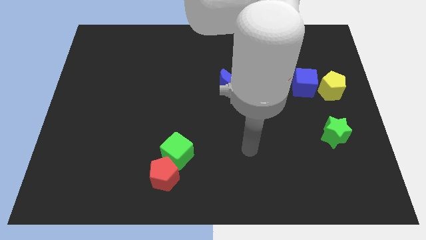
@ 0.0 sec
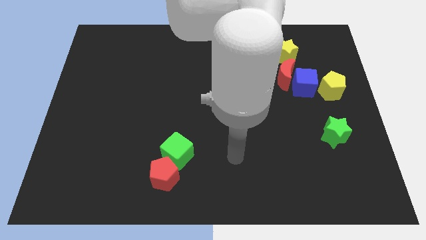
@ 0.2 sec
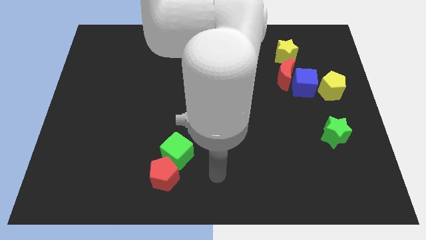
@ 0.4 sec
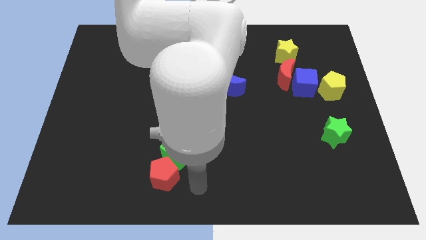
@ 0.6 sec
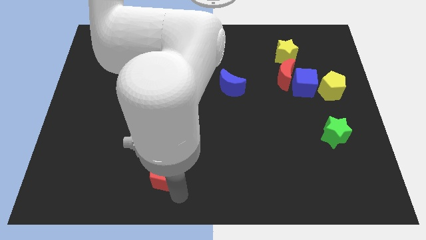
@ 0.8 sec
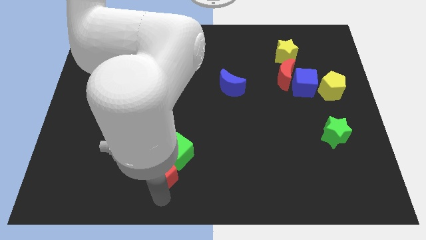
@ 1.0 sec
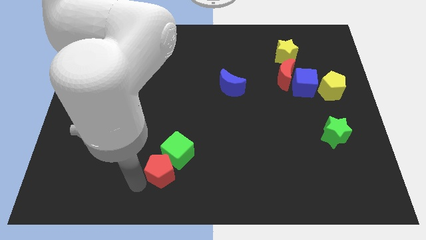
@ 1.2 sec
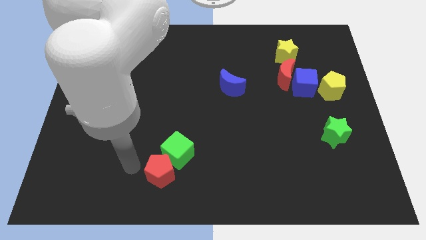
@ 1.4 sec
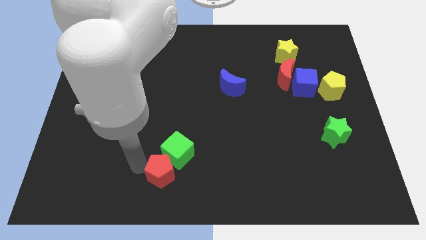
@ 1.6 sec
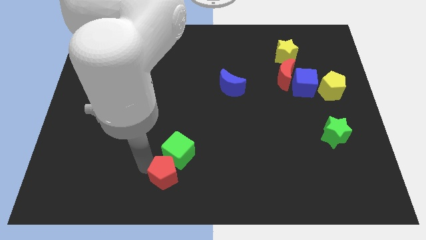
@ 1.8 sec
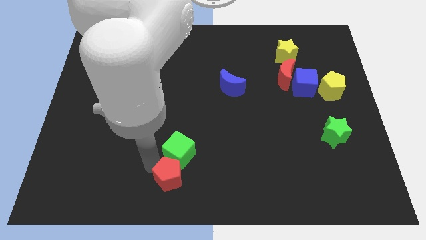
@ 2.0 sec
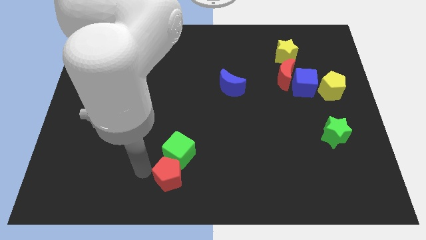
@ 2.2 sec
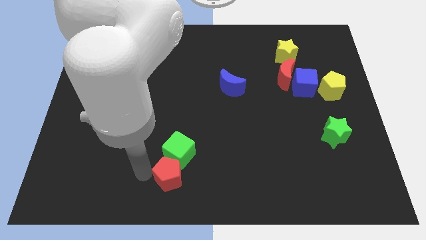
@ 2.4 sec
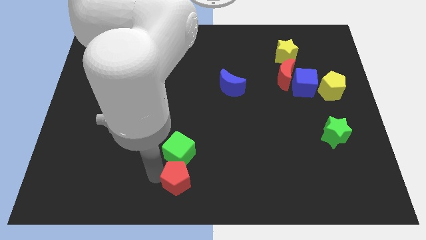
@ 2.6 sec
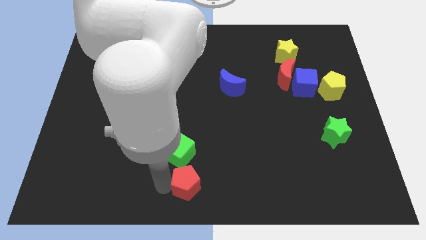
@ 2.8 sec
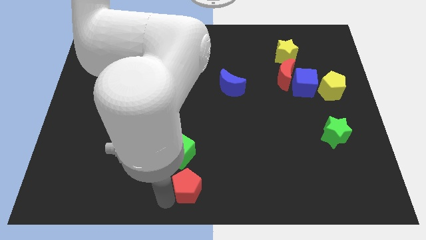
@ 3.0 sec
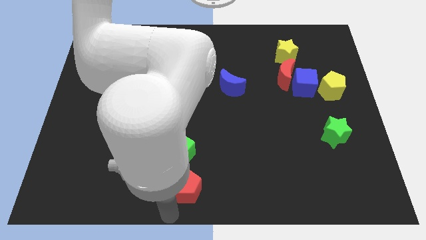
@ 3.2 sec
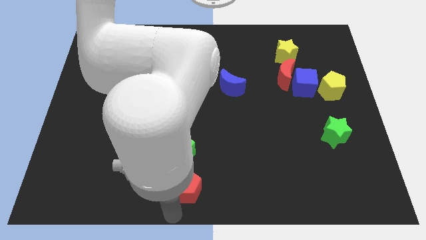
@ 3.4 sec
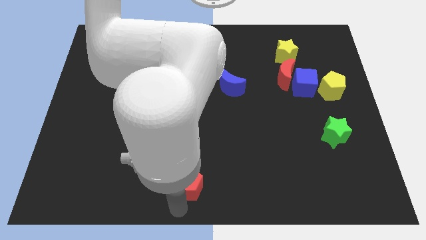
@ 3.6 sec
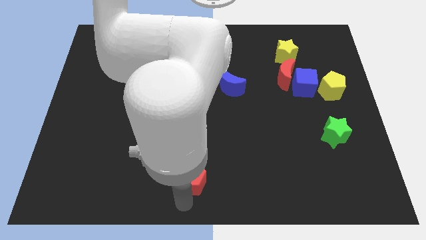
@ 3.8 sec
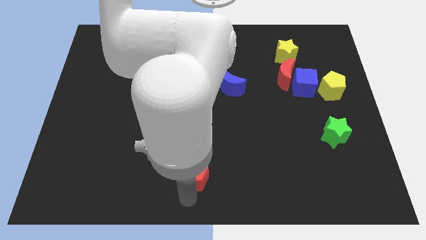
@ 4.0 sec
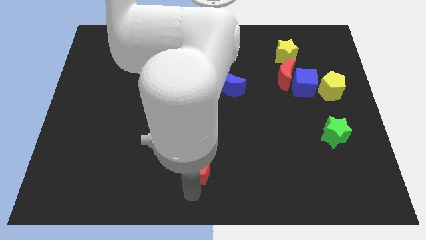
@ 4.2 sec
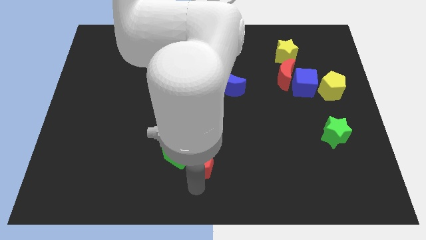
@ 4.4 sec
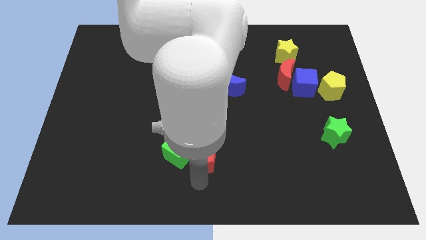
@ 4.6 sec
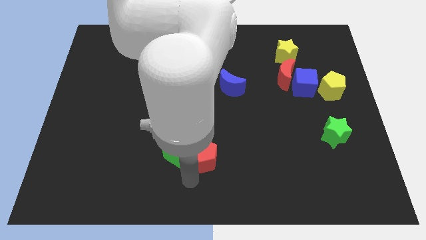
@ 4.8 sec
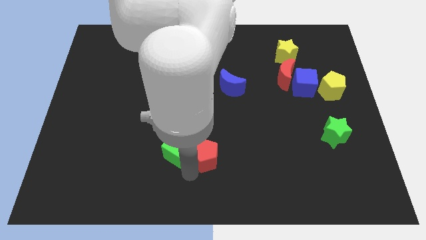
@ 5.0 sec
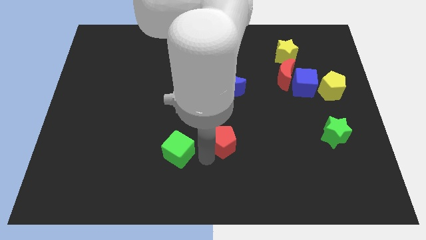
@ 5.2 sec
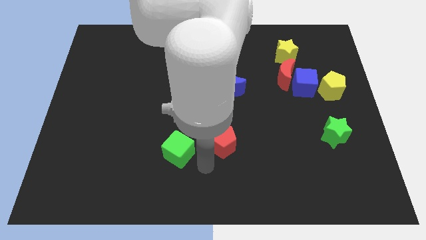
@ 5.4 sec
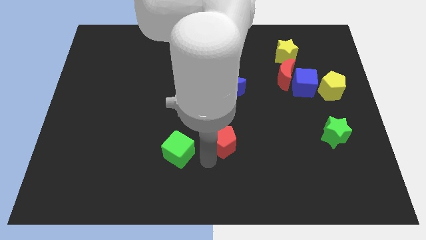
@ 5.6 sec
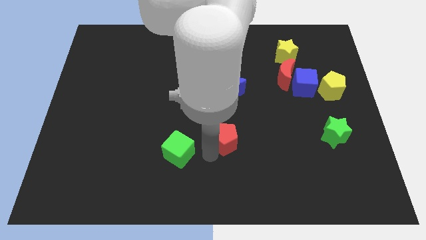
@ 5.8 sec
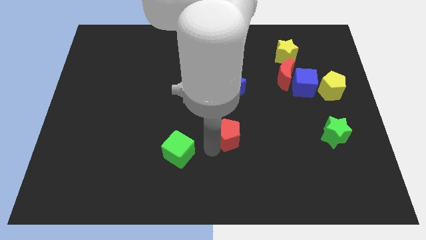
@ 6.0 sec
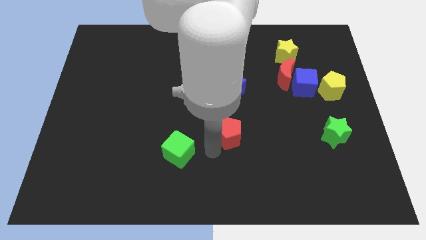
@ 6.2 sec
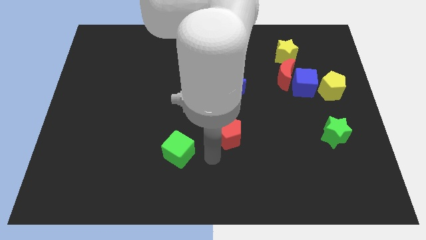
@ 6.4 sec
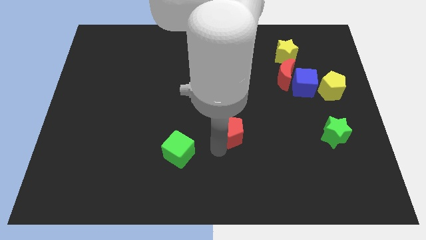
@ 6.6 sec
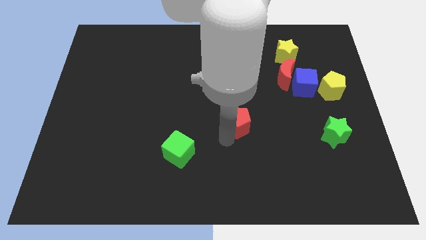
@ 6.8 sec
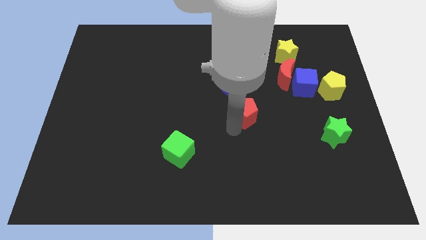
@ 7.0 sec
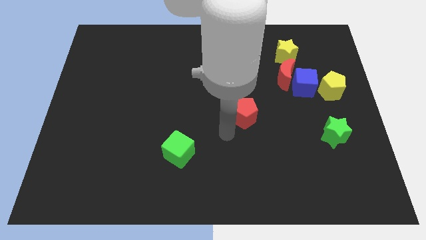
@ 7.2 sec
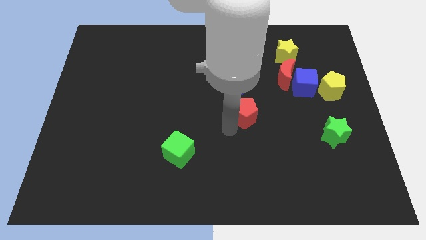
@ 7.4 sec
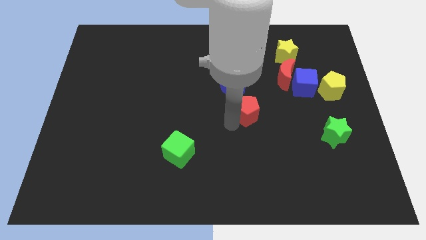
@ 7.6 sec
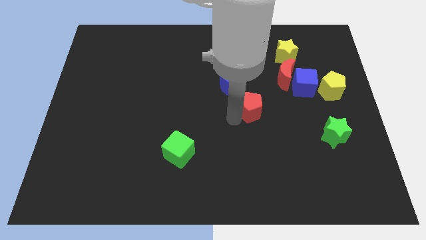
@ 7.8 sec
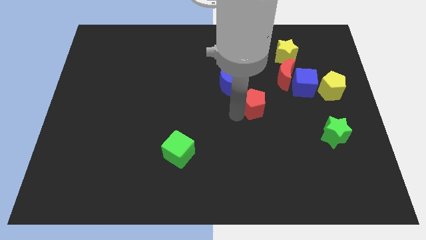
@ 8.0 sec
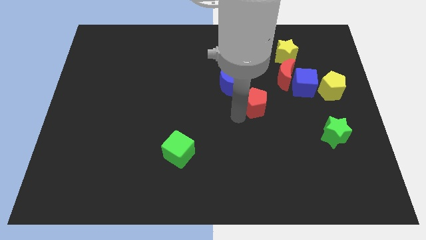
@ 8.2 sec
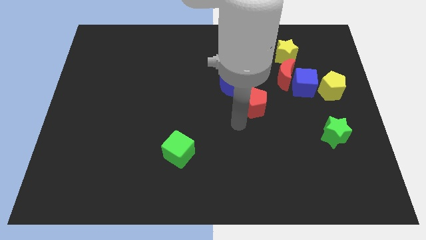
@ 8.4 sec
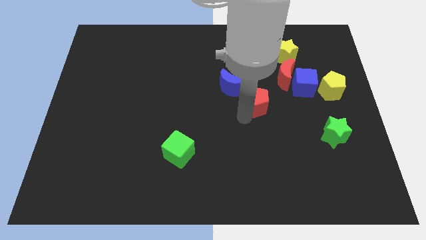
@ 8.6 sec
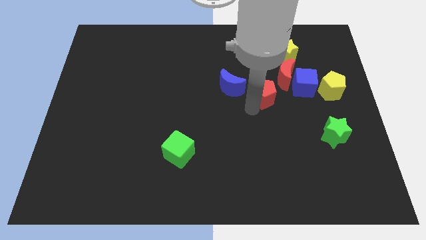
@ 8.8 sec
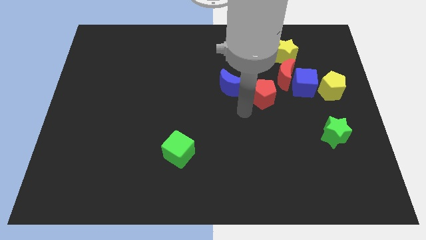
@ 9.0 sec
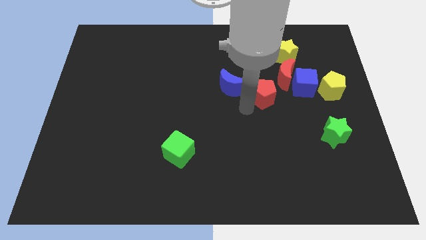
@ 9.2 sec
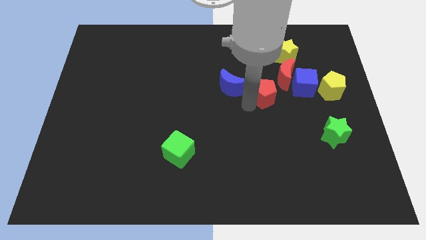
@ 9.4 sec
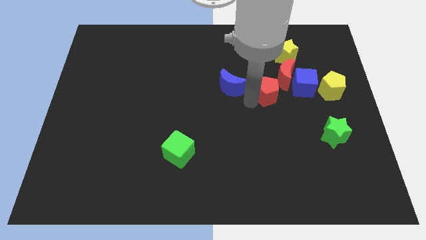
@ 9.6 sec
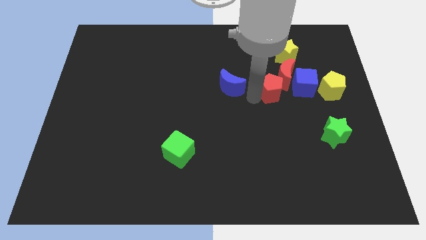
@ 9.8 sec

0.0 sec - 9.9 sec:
put the red pentagon close to the red moon

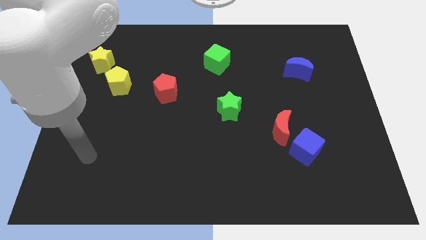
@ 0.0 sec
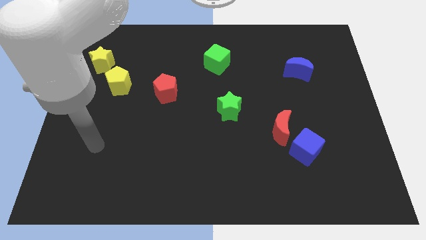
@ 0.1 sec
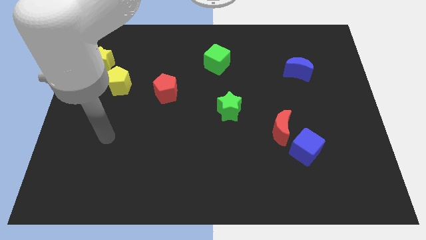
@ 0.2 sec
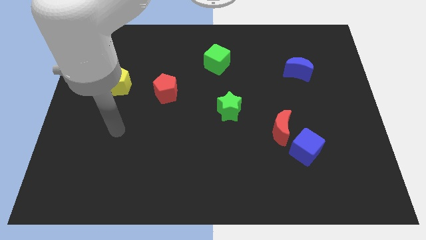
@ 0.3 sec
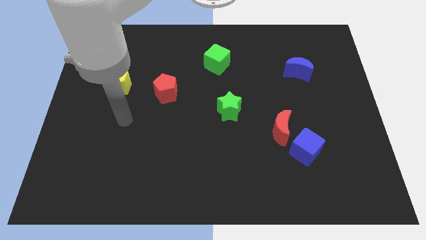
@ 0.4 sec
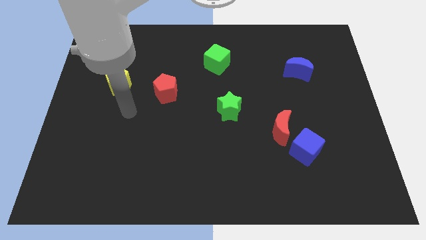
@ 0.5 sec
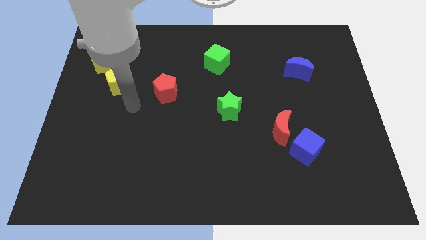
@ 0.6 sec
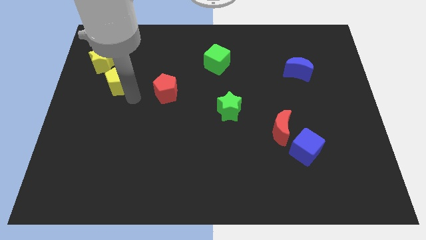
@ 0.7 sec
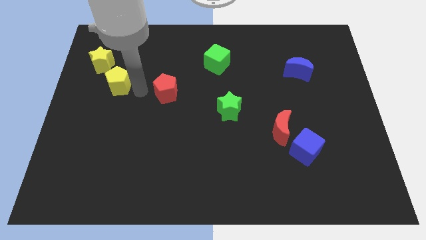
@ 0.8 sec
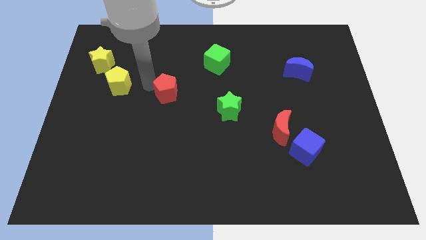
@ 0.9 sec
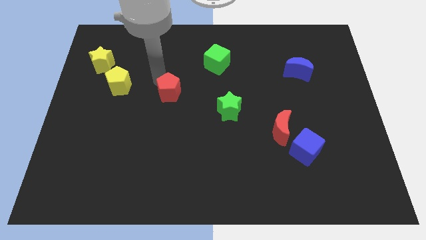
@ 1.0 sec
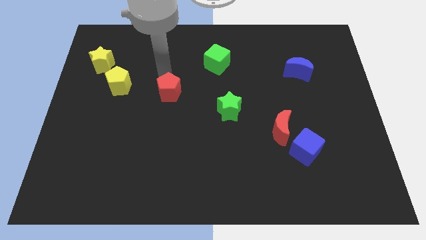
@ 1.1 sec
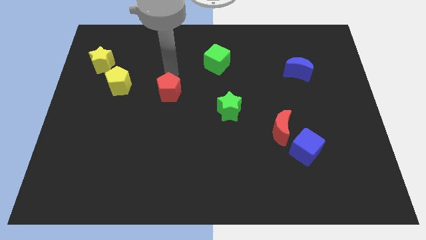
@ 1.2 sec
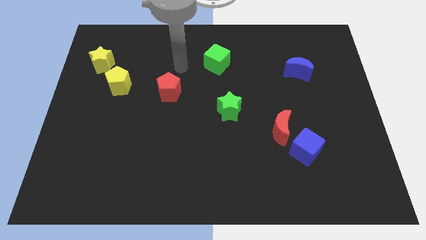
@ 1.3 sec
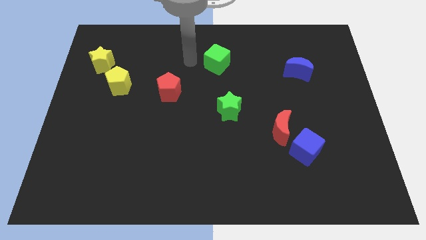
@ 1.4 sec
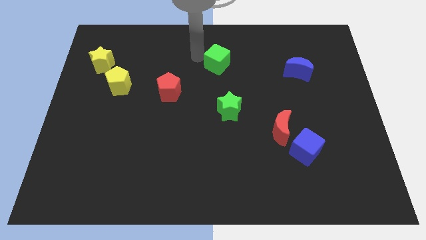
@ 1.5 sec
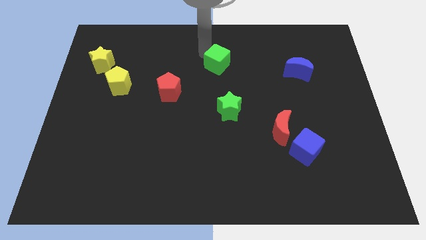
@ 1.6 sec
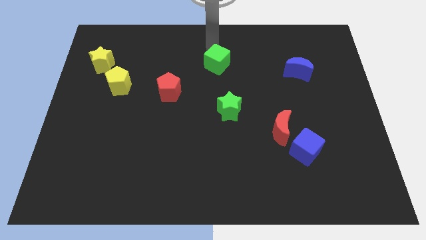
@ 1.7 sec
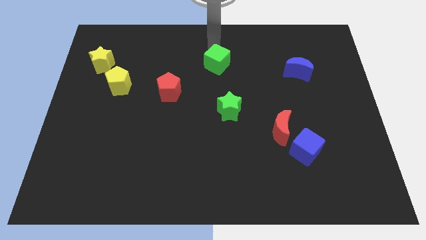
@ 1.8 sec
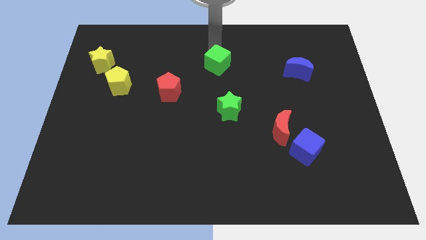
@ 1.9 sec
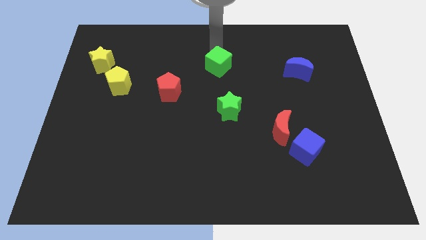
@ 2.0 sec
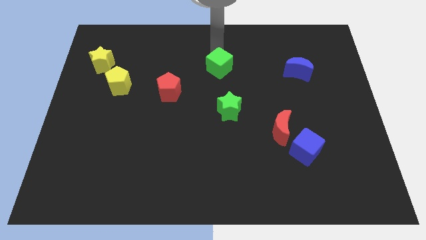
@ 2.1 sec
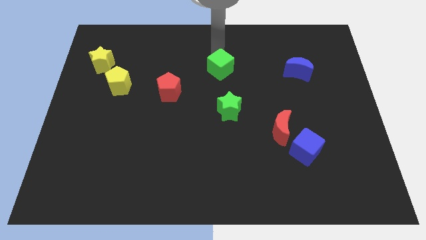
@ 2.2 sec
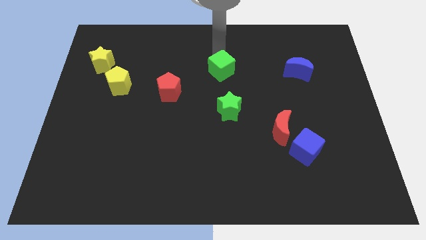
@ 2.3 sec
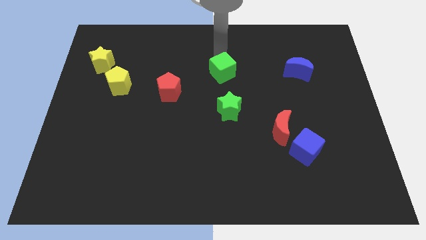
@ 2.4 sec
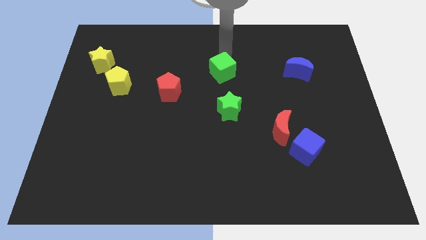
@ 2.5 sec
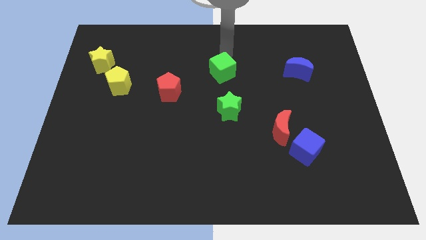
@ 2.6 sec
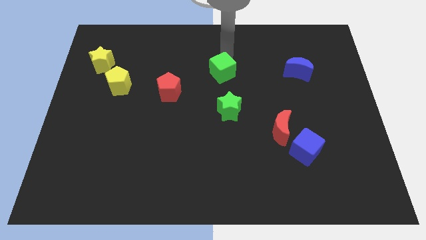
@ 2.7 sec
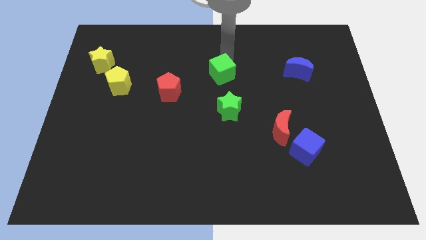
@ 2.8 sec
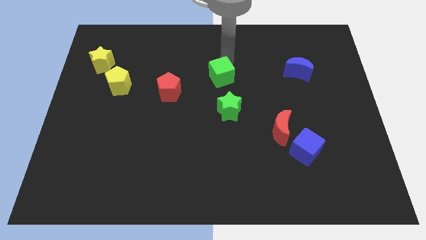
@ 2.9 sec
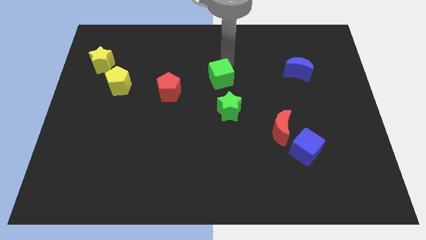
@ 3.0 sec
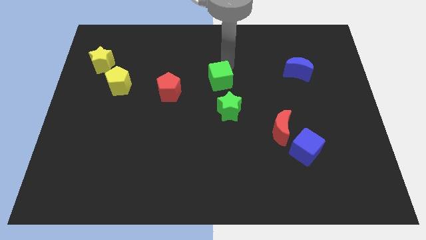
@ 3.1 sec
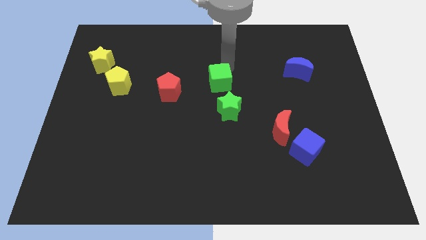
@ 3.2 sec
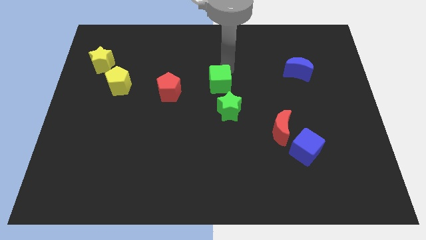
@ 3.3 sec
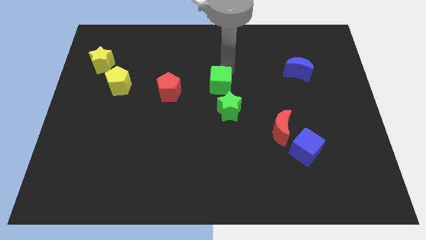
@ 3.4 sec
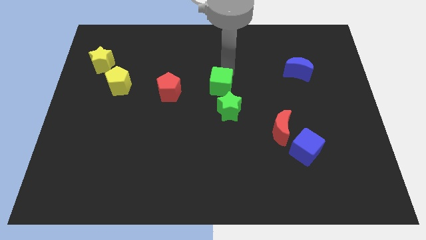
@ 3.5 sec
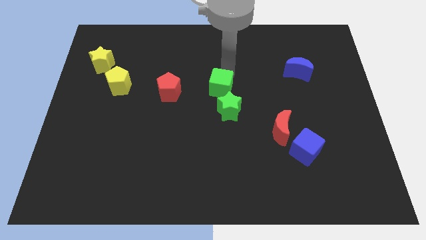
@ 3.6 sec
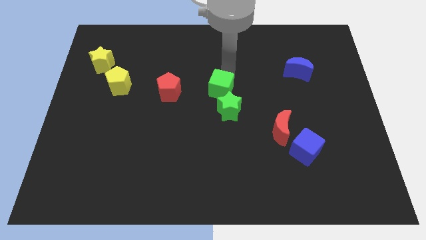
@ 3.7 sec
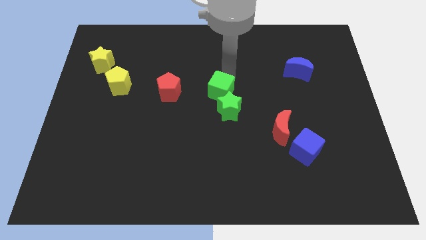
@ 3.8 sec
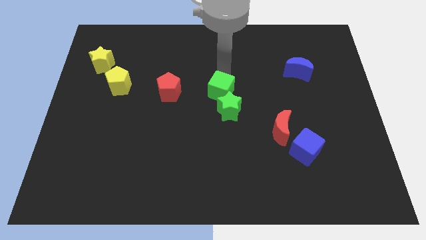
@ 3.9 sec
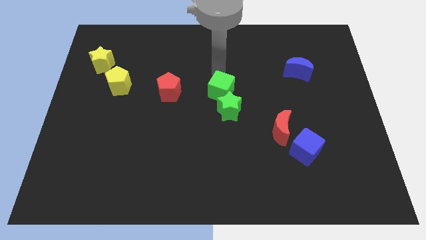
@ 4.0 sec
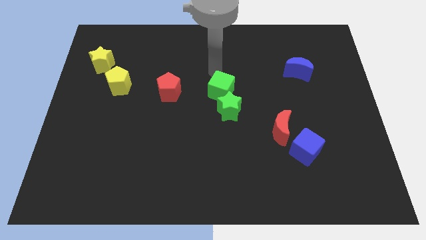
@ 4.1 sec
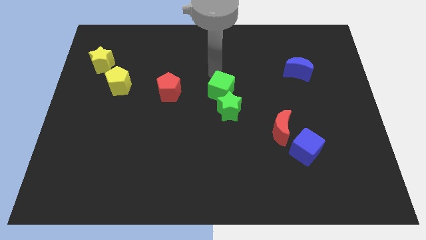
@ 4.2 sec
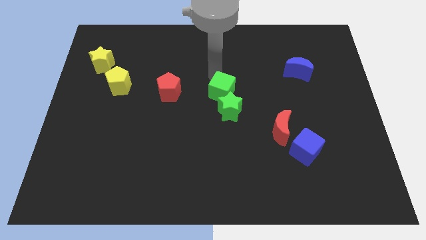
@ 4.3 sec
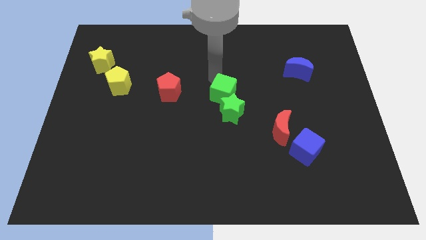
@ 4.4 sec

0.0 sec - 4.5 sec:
push the green cube towards the green star
